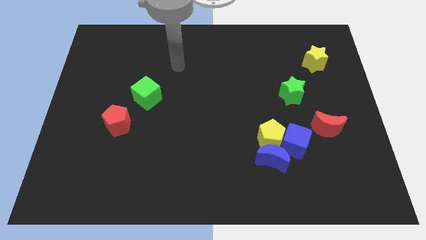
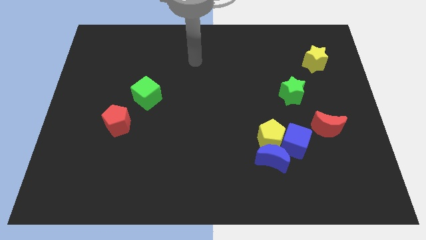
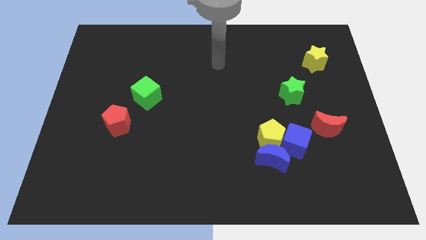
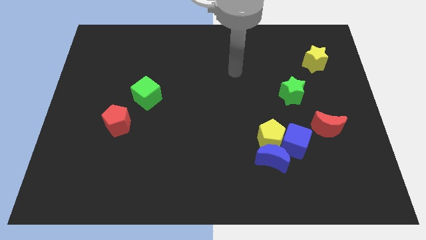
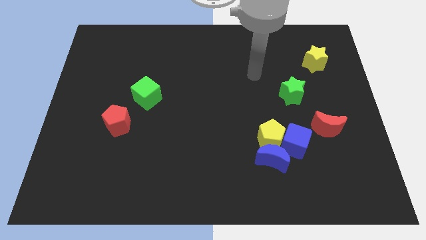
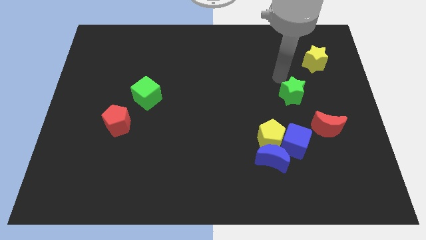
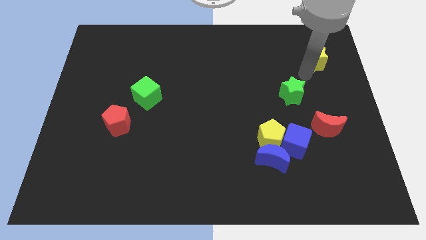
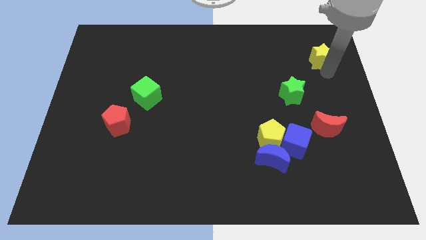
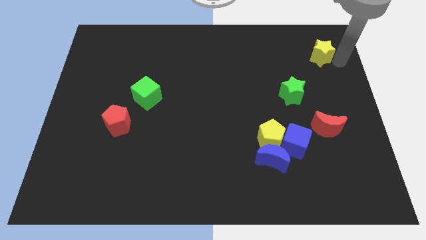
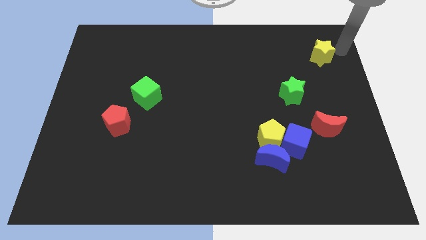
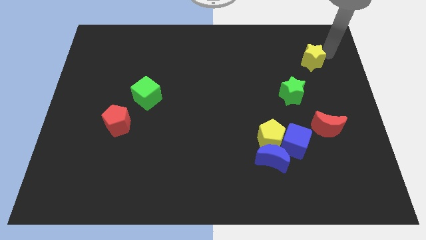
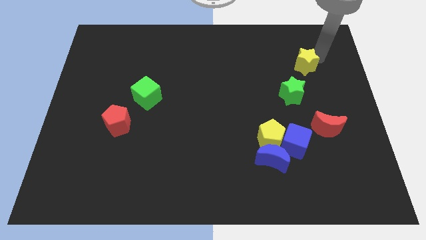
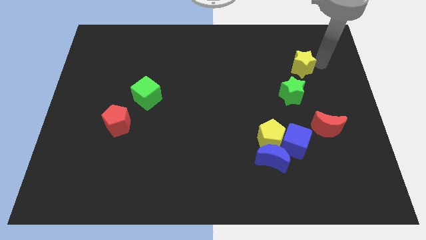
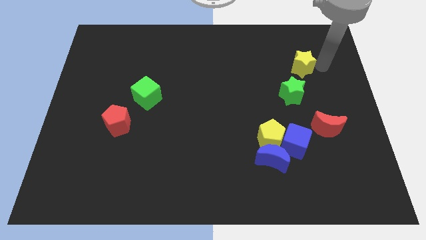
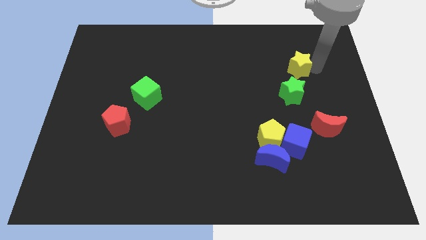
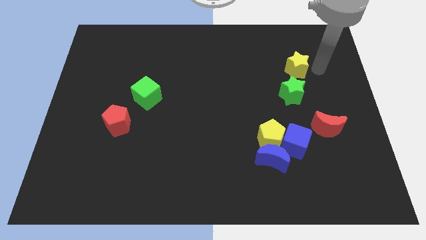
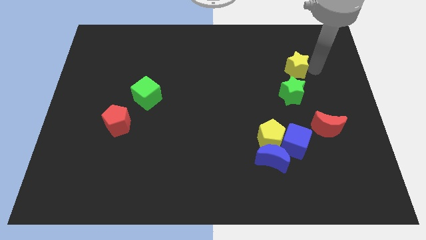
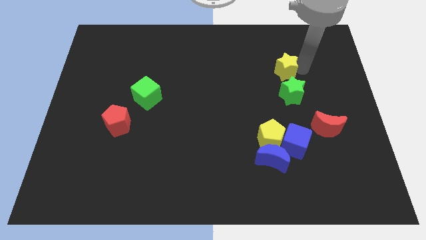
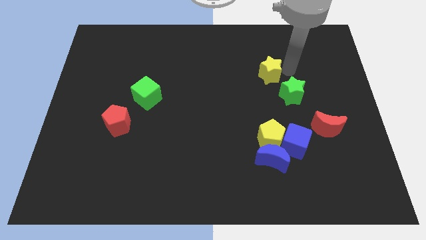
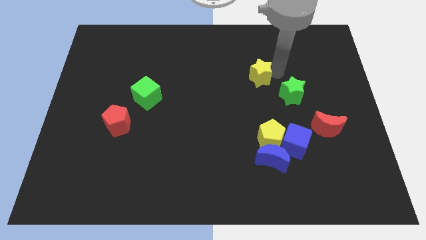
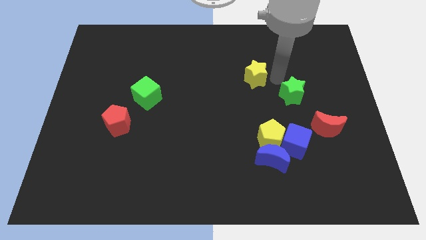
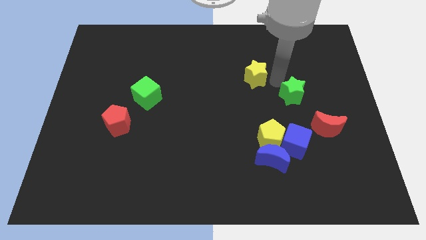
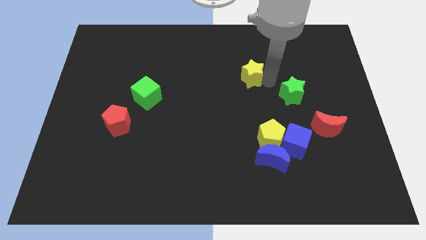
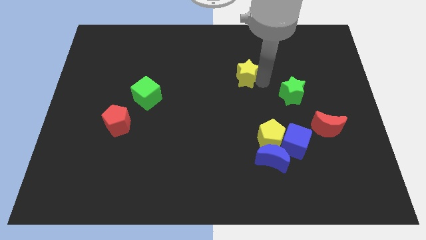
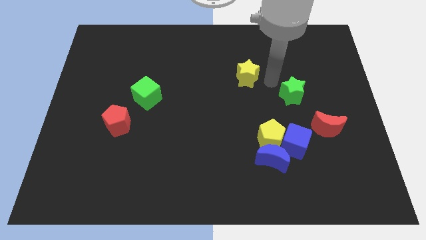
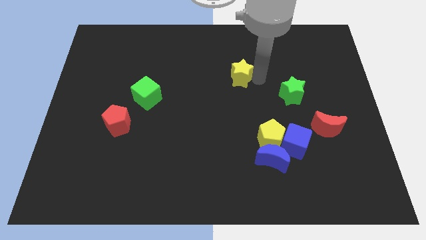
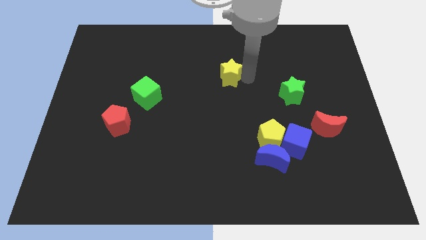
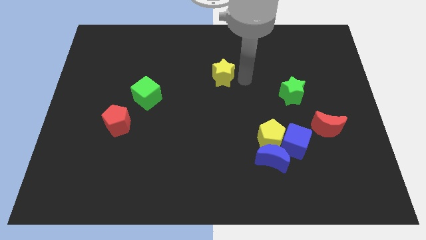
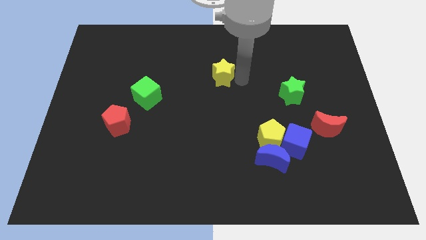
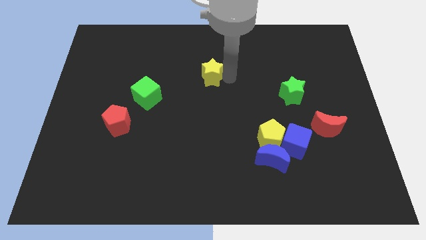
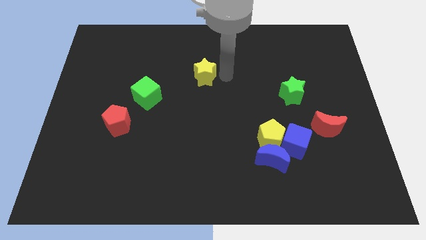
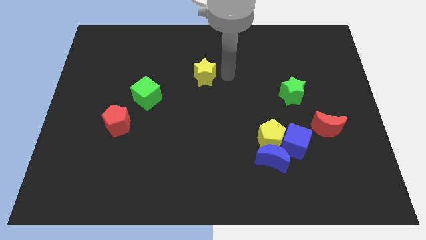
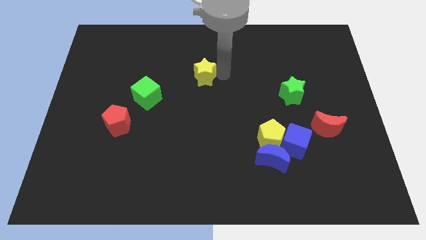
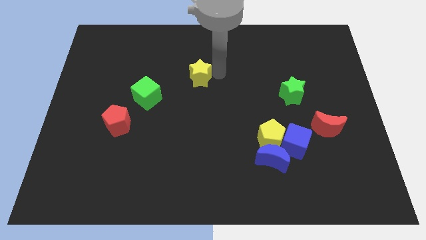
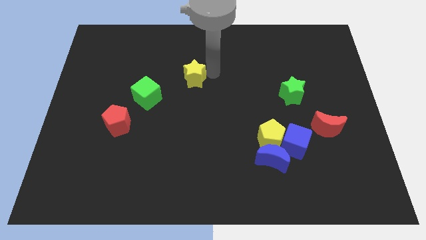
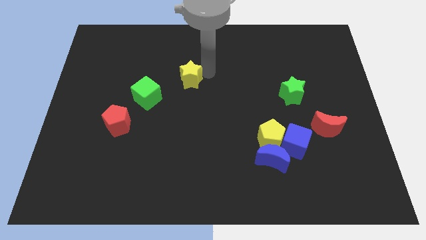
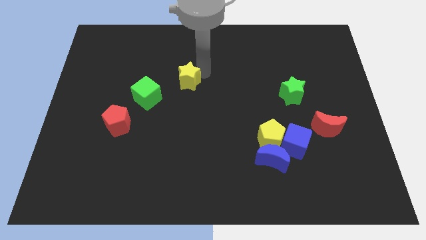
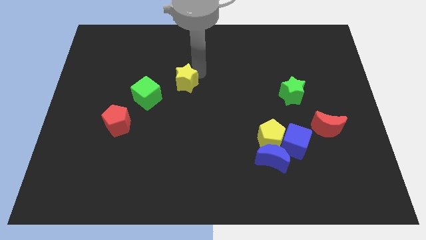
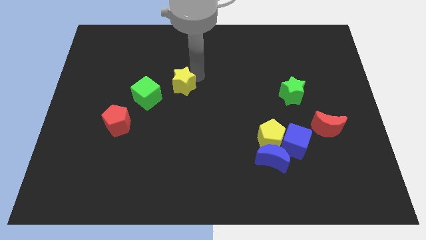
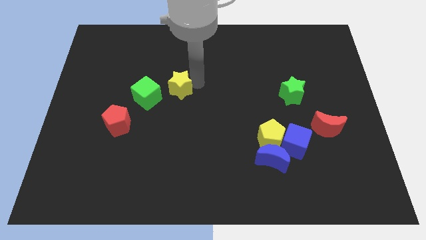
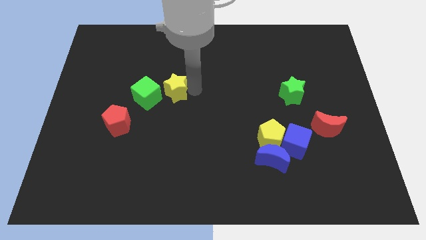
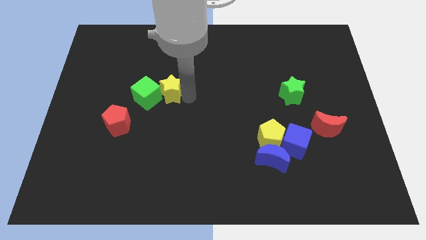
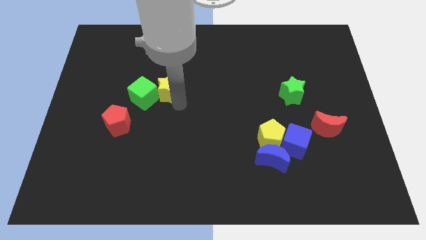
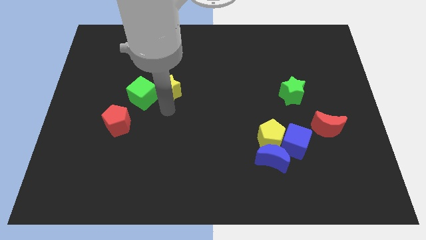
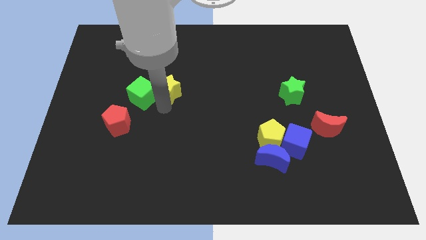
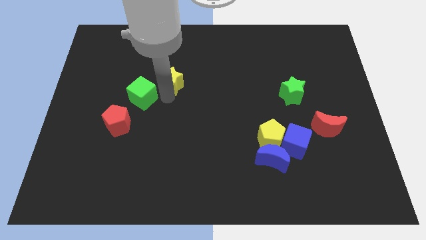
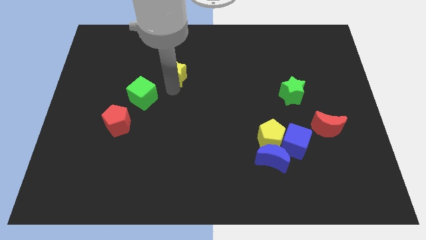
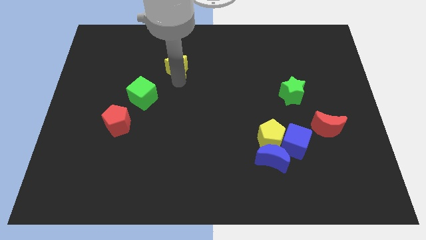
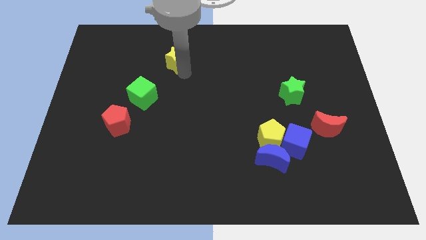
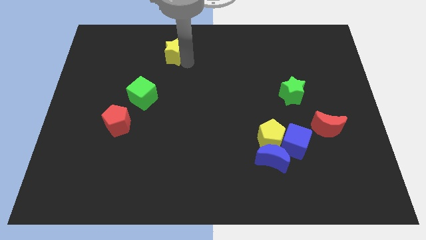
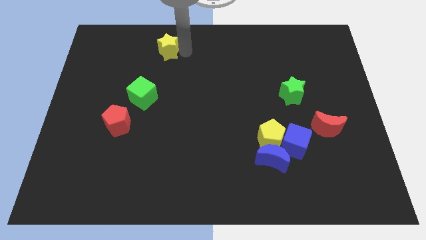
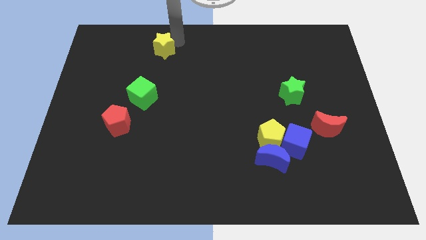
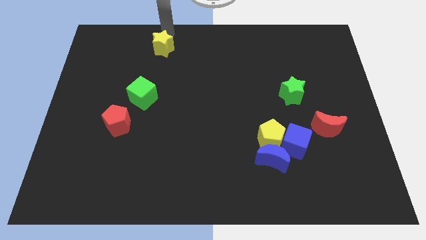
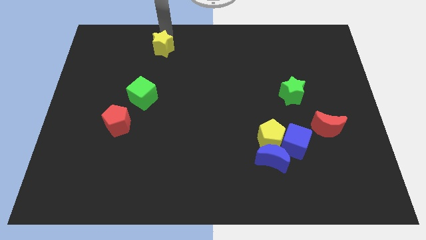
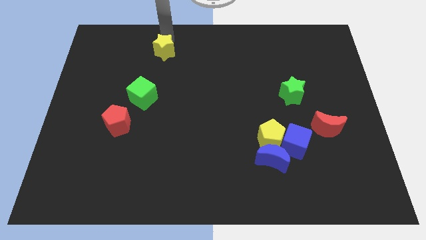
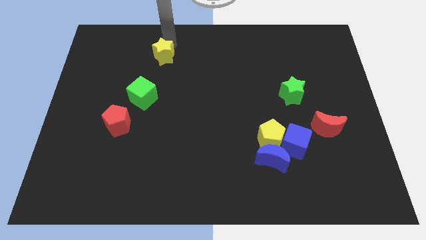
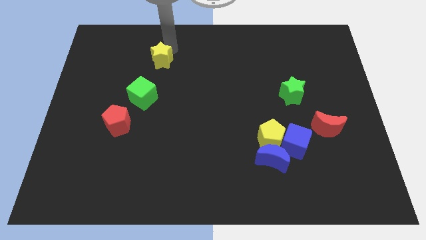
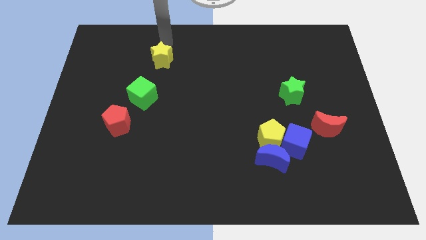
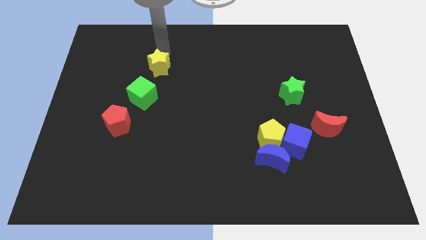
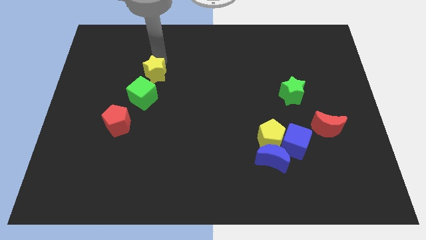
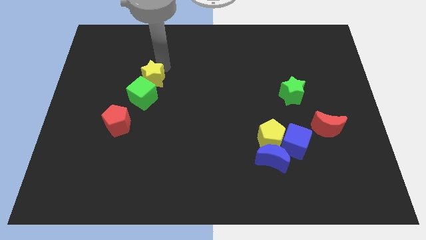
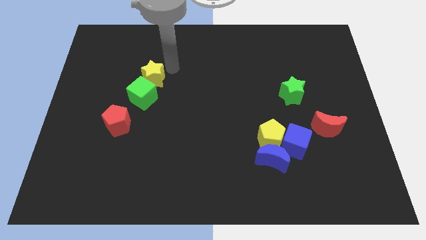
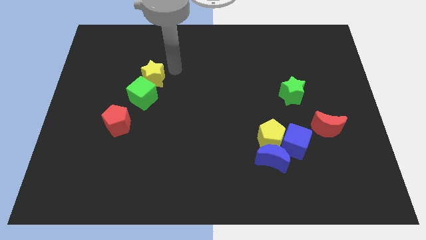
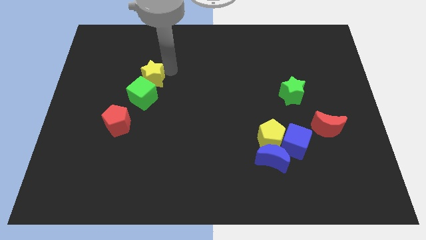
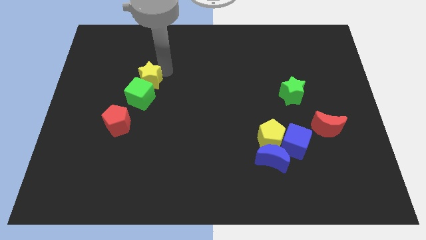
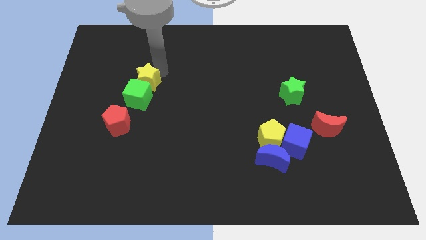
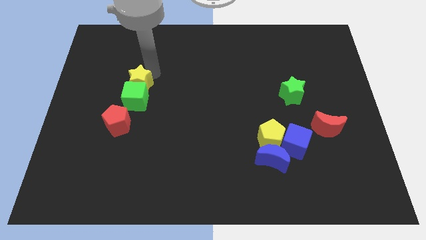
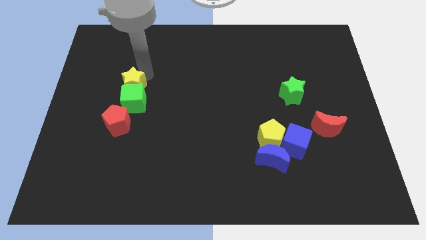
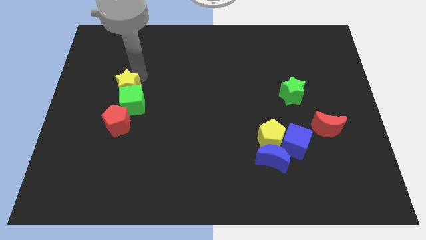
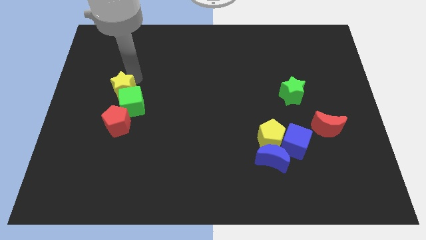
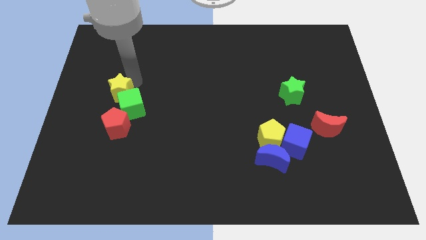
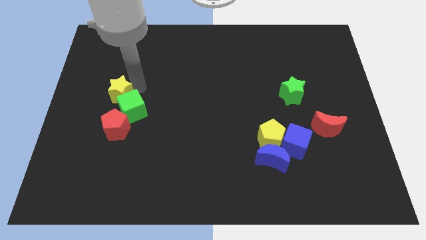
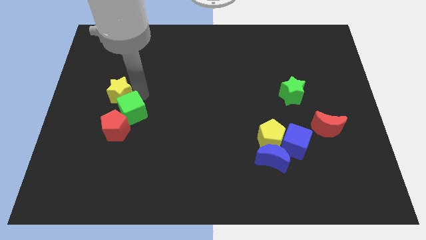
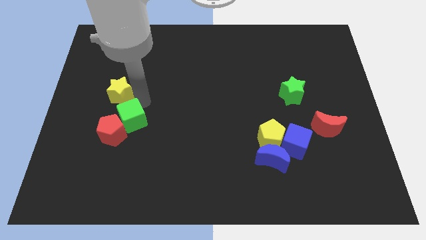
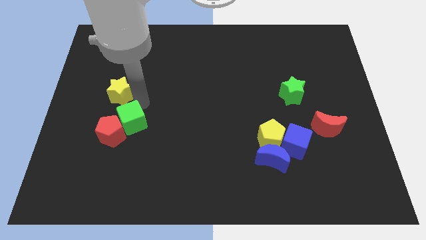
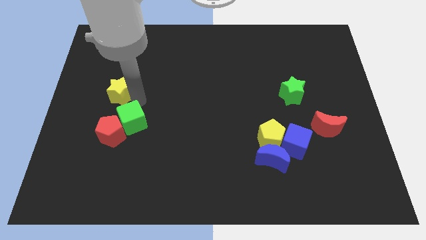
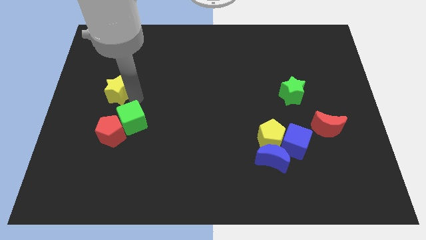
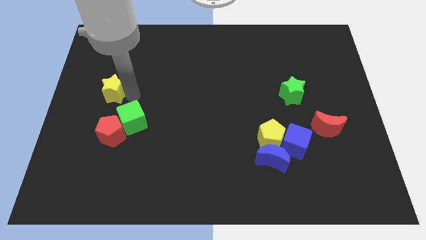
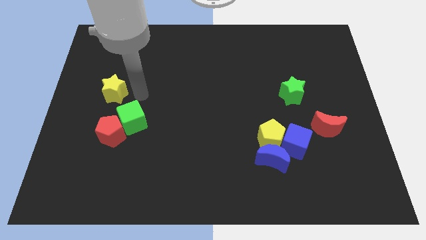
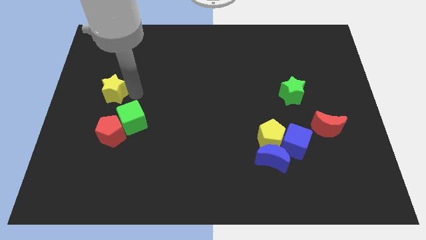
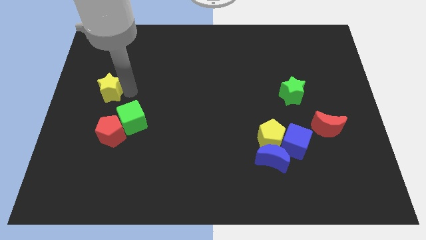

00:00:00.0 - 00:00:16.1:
push the yellow star to the center left
